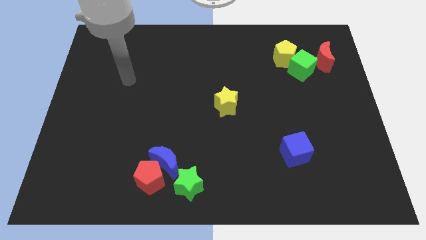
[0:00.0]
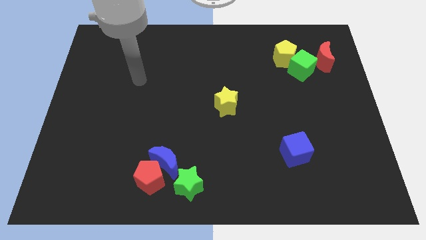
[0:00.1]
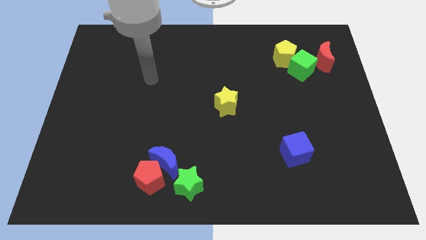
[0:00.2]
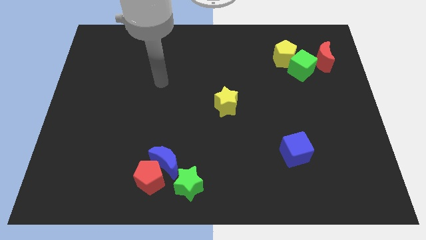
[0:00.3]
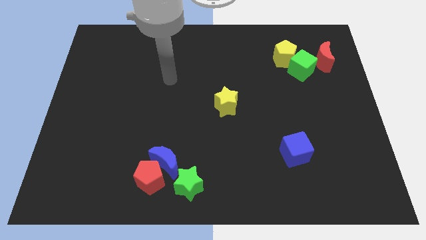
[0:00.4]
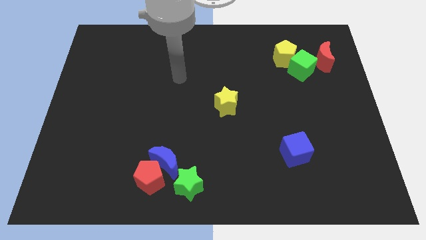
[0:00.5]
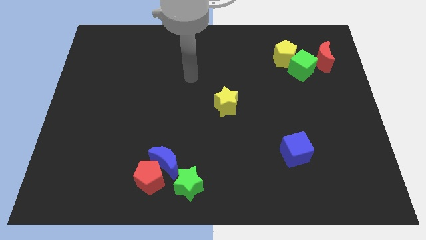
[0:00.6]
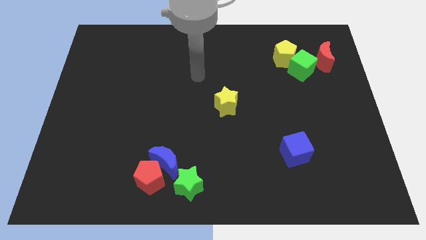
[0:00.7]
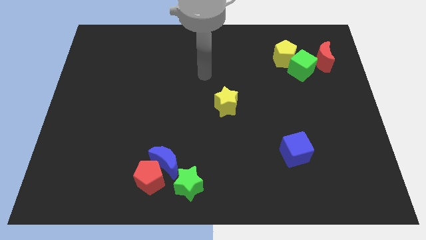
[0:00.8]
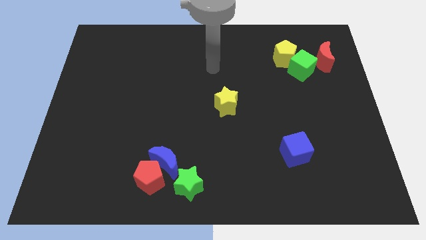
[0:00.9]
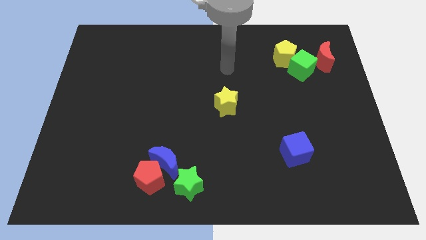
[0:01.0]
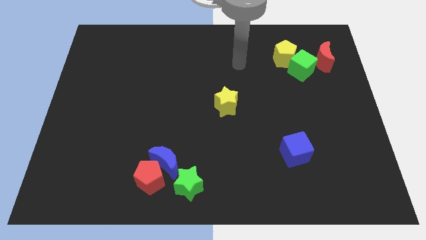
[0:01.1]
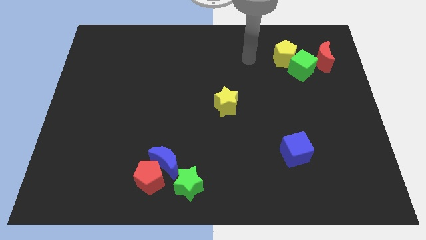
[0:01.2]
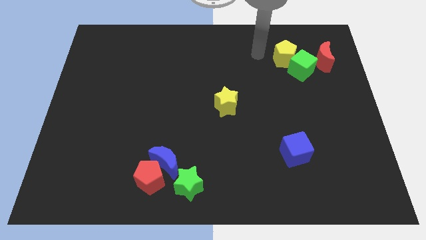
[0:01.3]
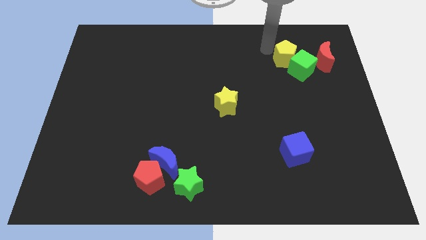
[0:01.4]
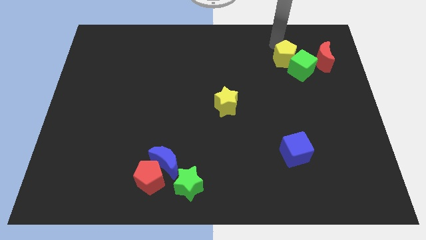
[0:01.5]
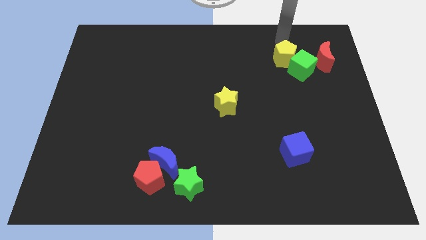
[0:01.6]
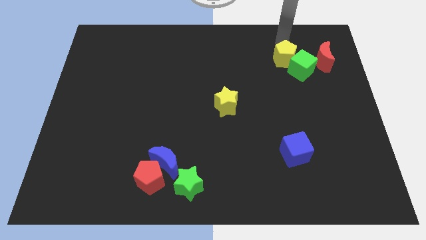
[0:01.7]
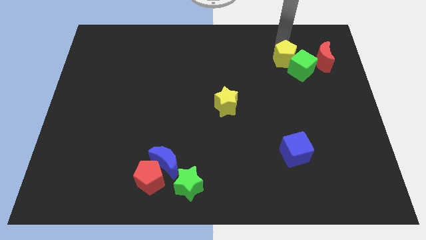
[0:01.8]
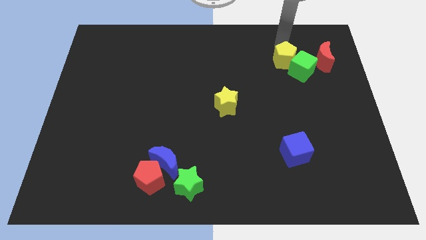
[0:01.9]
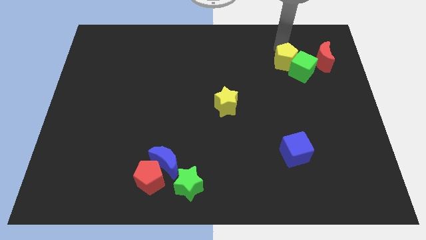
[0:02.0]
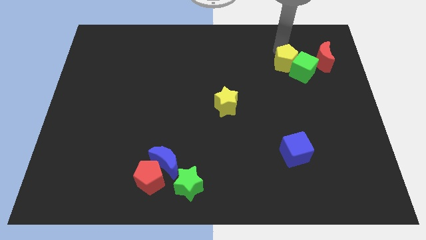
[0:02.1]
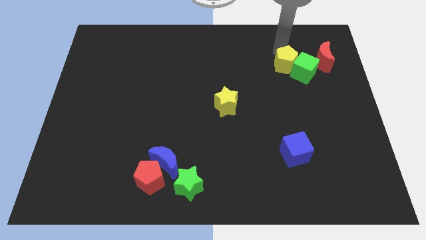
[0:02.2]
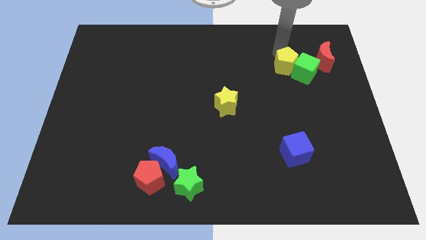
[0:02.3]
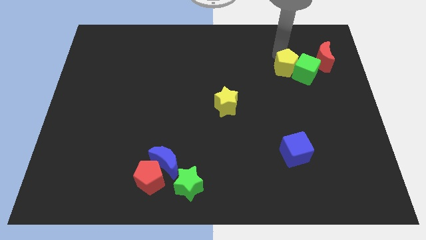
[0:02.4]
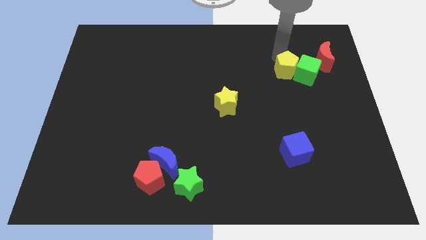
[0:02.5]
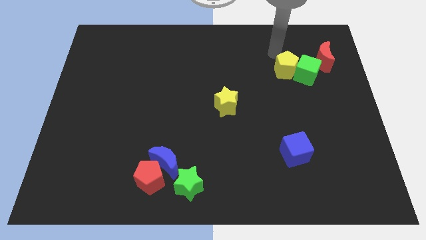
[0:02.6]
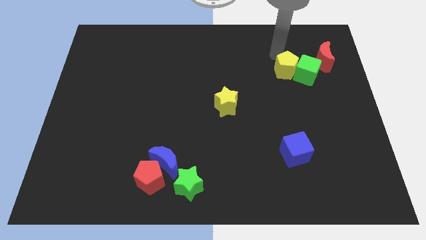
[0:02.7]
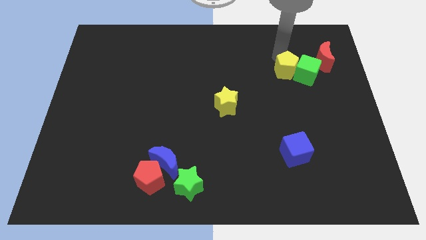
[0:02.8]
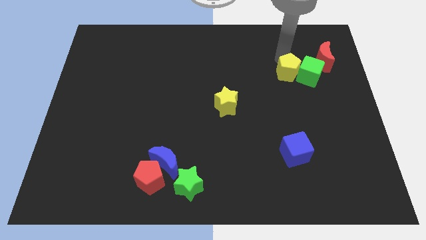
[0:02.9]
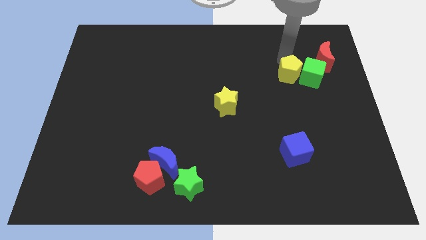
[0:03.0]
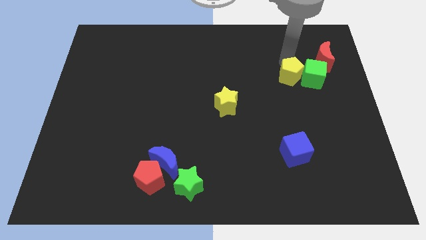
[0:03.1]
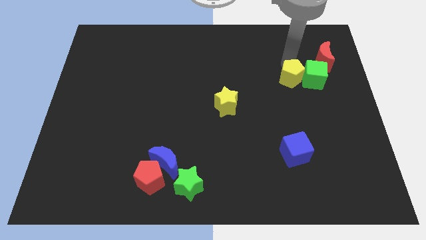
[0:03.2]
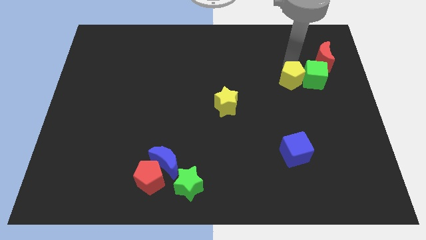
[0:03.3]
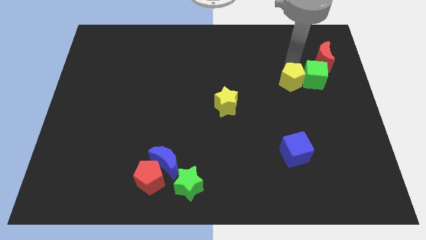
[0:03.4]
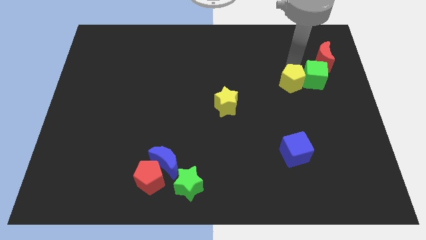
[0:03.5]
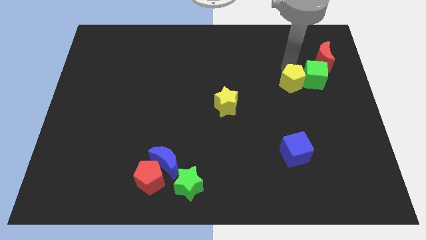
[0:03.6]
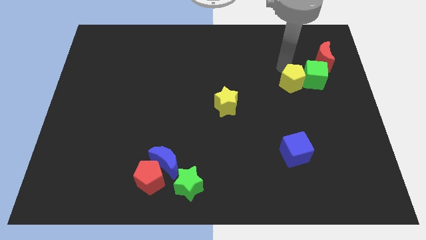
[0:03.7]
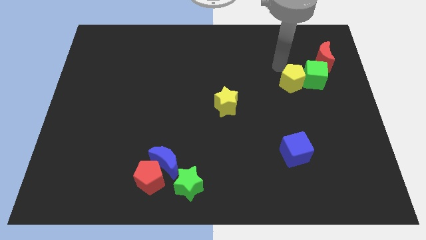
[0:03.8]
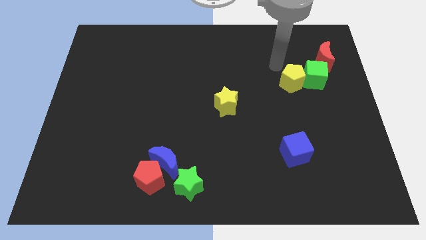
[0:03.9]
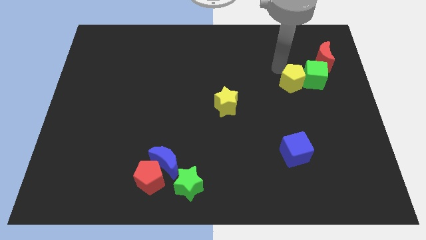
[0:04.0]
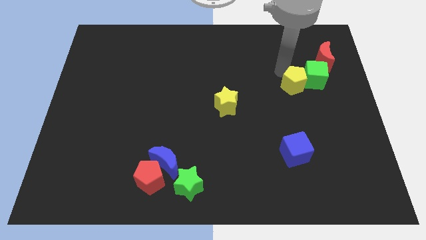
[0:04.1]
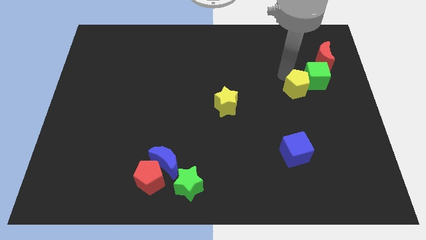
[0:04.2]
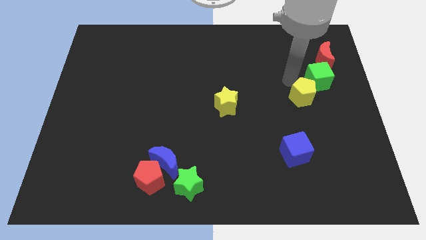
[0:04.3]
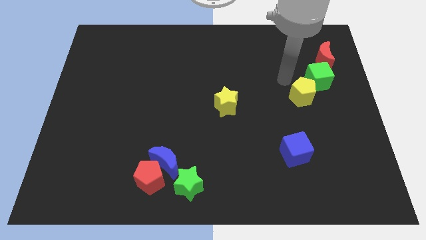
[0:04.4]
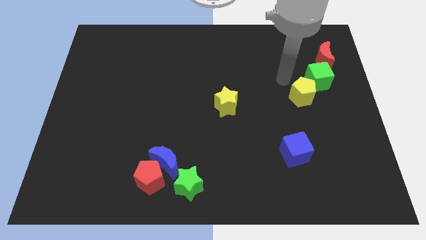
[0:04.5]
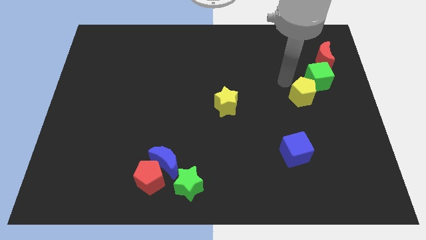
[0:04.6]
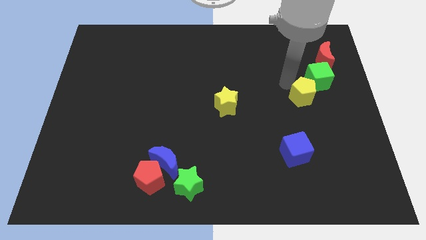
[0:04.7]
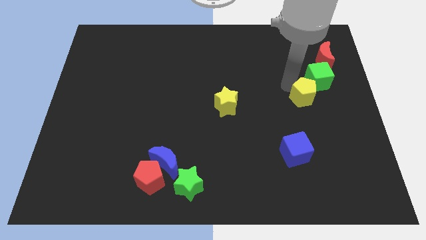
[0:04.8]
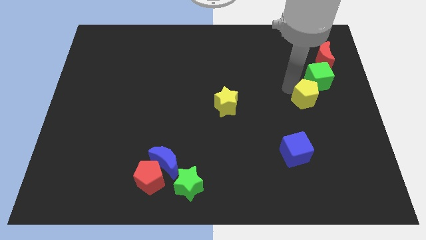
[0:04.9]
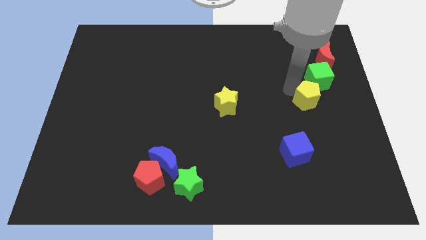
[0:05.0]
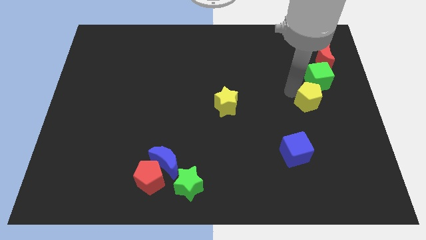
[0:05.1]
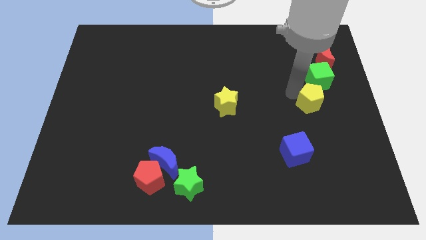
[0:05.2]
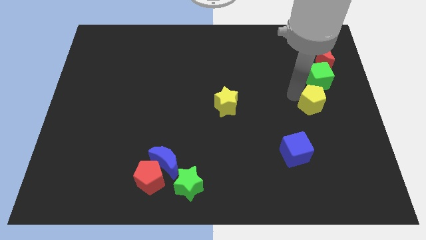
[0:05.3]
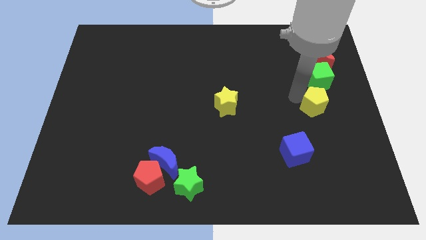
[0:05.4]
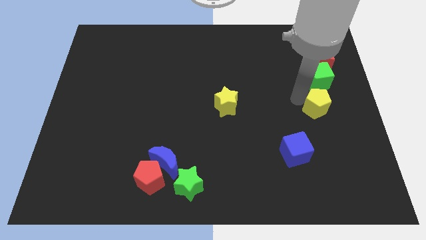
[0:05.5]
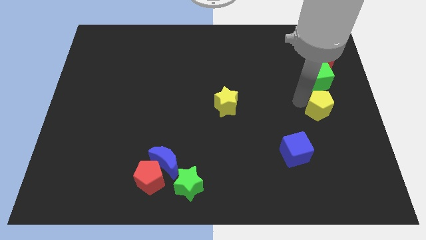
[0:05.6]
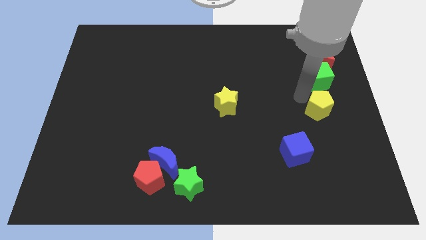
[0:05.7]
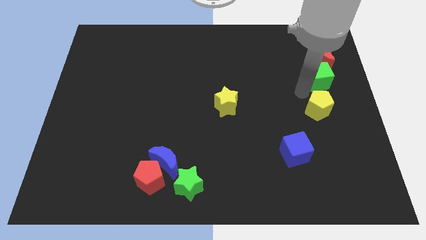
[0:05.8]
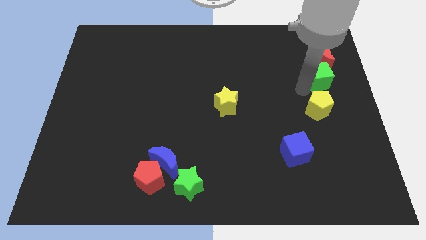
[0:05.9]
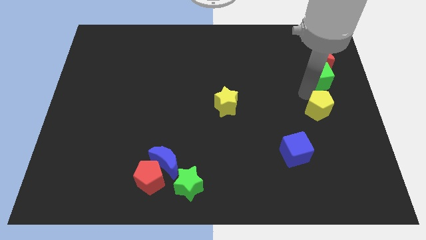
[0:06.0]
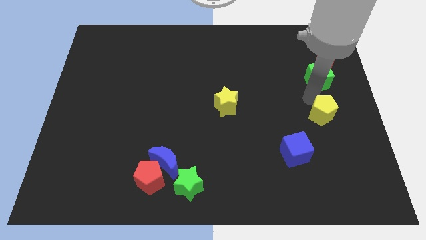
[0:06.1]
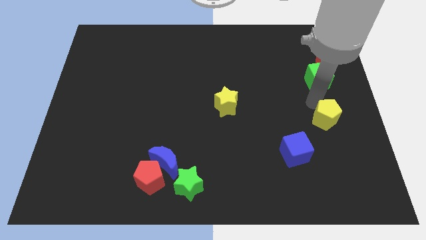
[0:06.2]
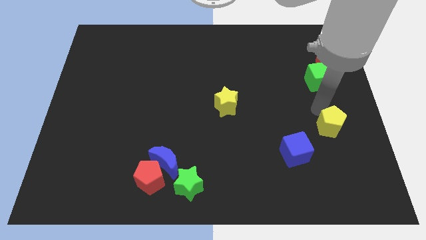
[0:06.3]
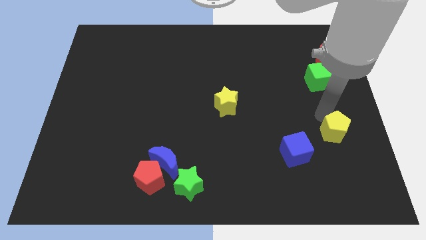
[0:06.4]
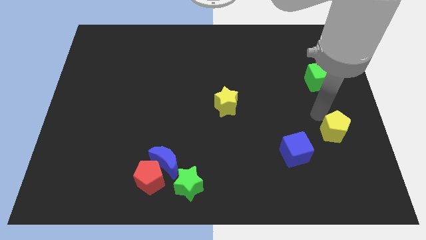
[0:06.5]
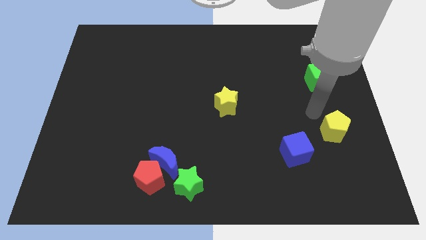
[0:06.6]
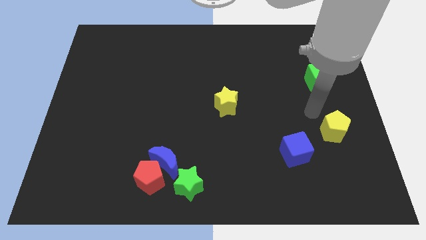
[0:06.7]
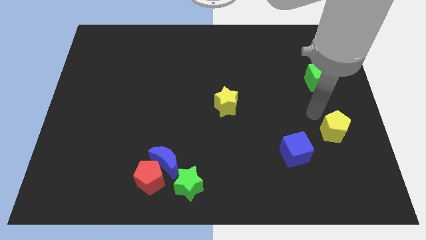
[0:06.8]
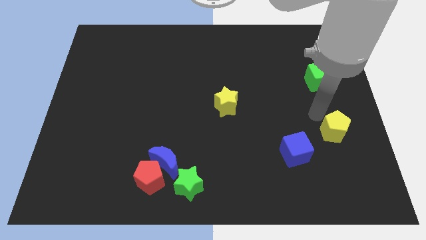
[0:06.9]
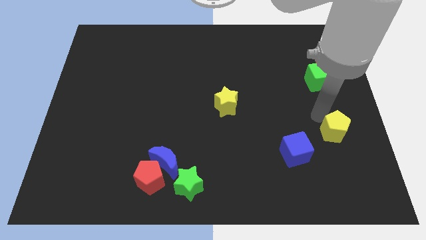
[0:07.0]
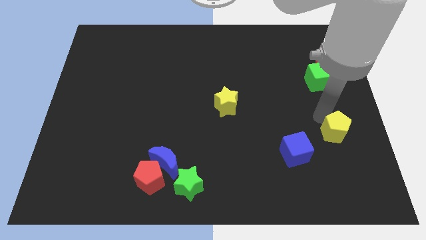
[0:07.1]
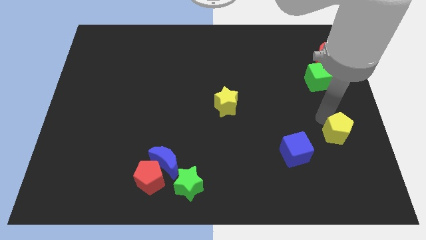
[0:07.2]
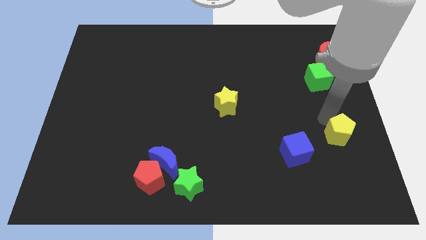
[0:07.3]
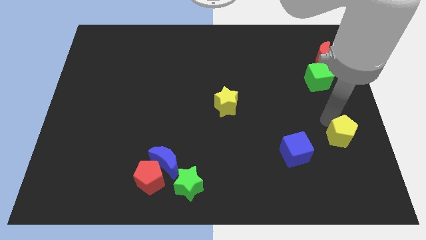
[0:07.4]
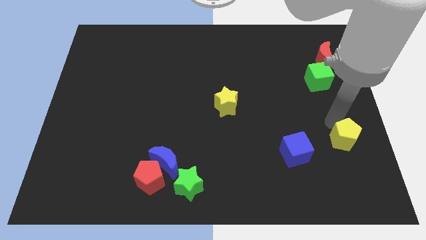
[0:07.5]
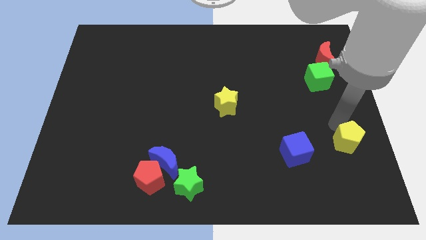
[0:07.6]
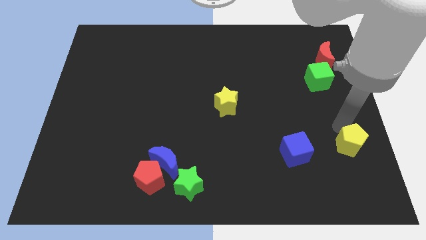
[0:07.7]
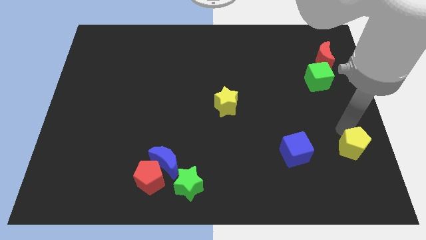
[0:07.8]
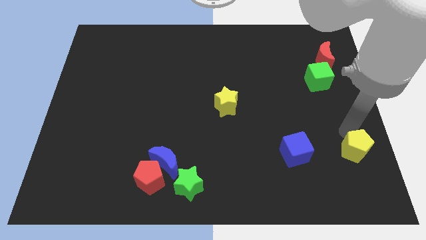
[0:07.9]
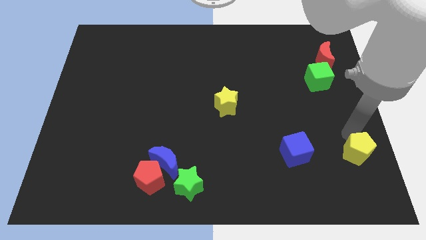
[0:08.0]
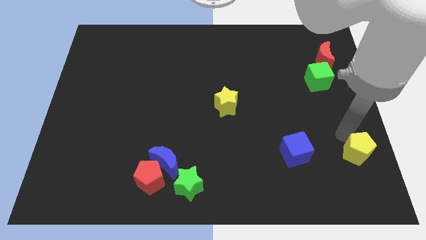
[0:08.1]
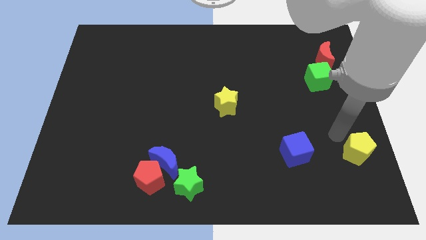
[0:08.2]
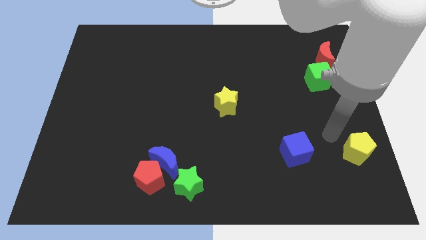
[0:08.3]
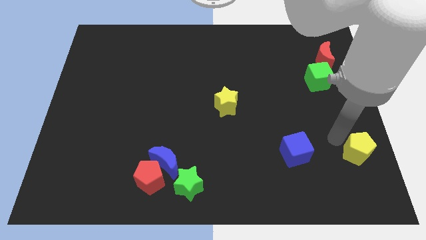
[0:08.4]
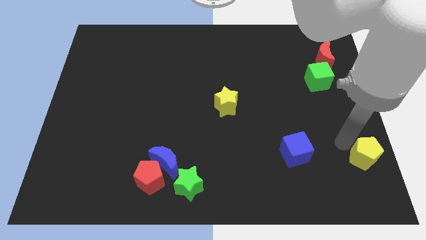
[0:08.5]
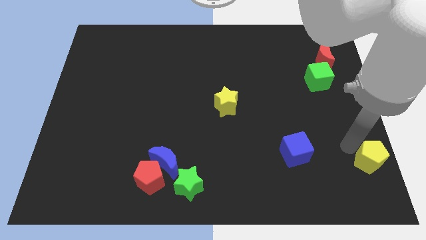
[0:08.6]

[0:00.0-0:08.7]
move the yellow pentagon to the bottom right
